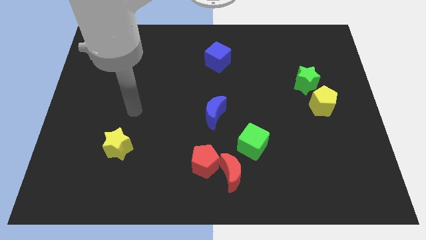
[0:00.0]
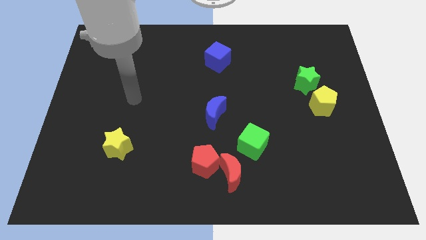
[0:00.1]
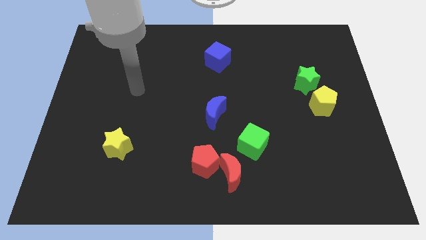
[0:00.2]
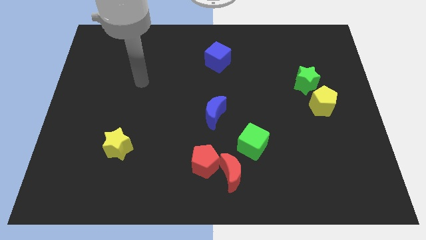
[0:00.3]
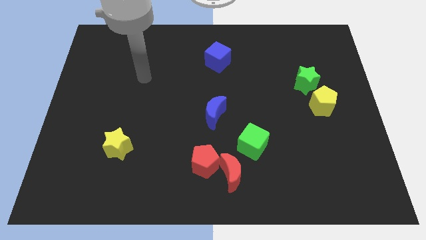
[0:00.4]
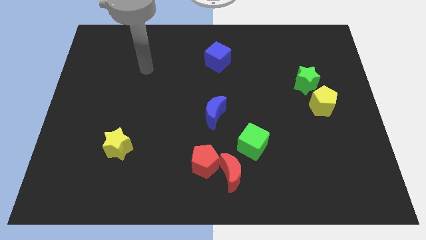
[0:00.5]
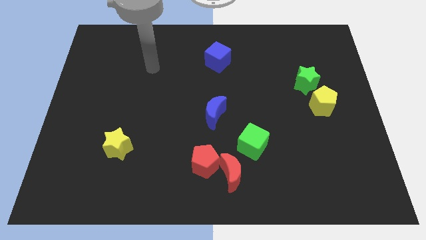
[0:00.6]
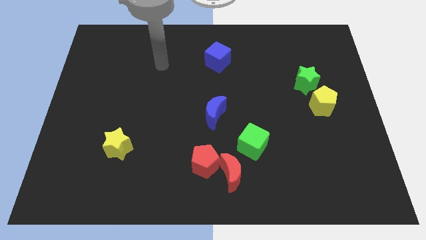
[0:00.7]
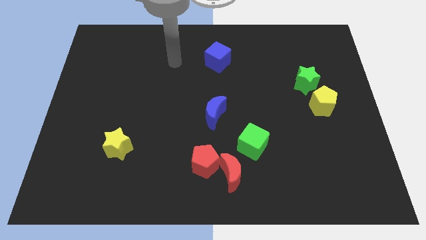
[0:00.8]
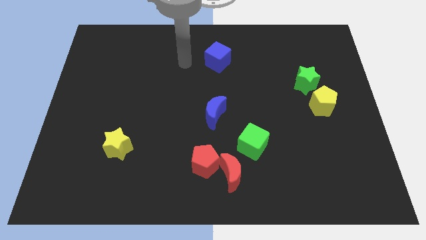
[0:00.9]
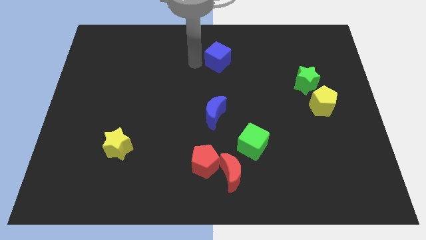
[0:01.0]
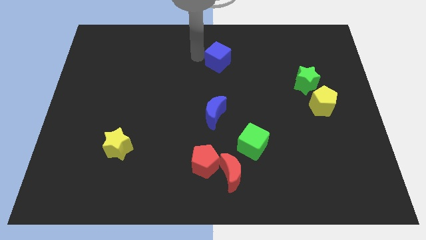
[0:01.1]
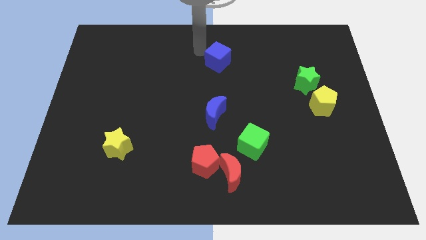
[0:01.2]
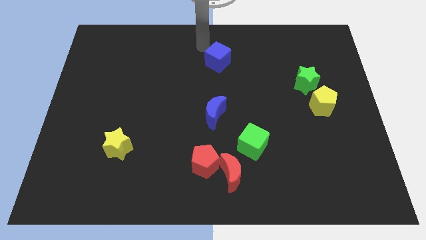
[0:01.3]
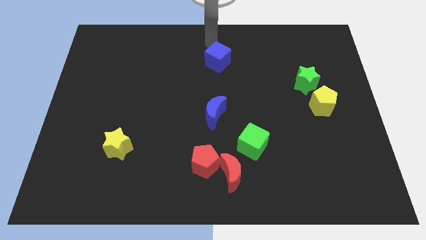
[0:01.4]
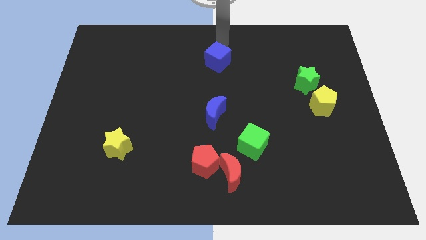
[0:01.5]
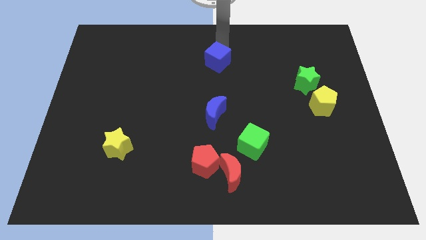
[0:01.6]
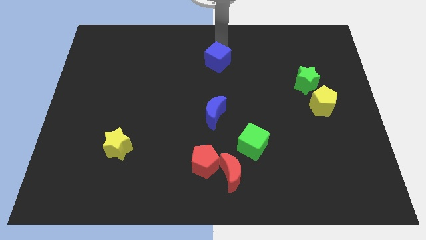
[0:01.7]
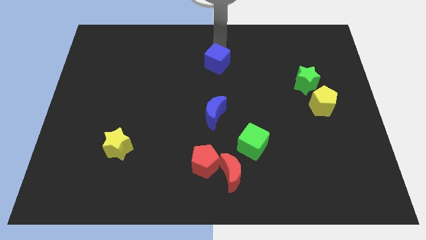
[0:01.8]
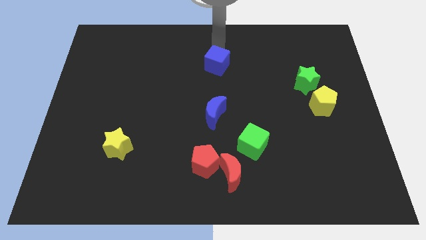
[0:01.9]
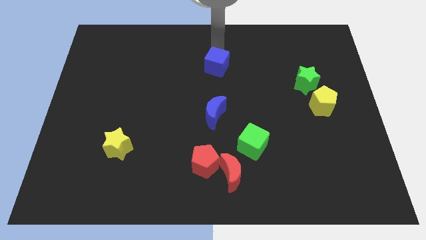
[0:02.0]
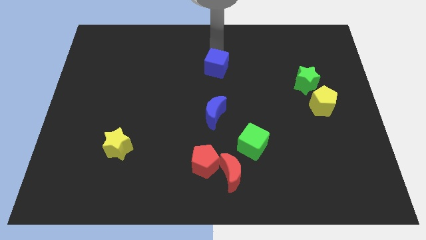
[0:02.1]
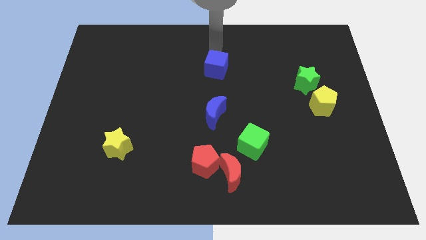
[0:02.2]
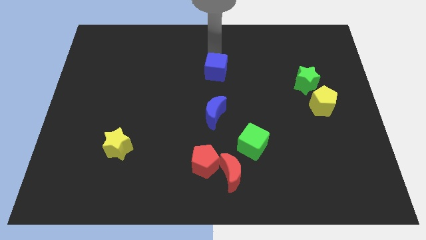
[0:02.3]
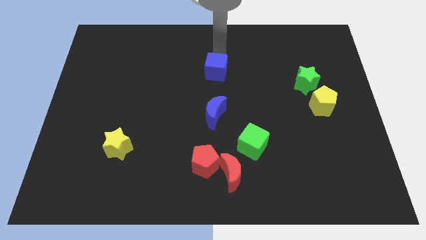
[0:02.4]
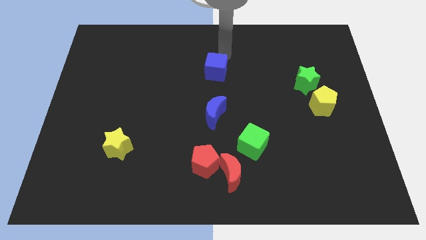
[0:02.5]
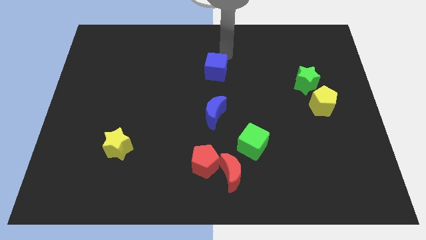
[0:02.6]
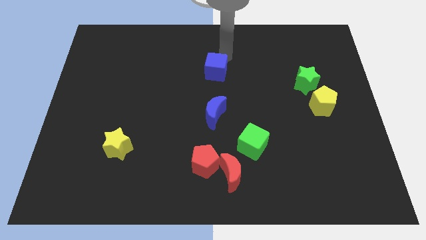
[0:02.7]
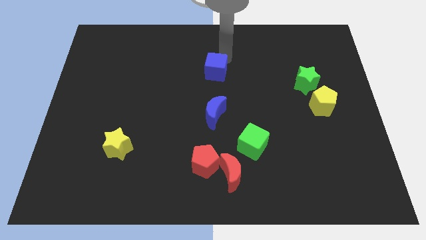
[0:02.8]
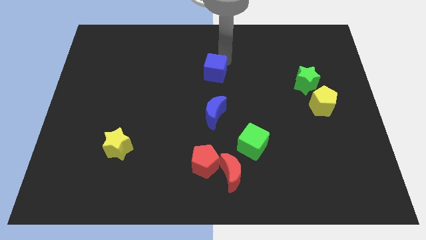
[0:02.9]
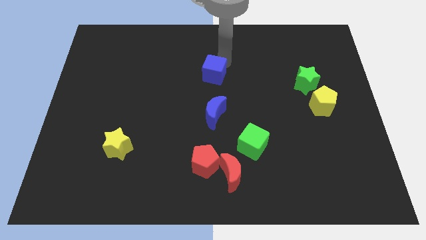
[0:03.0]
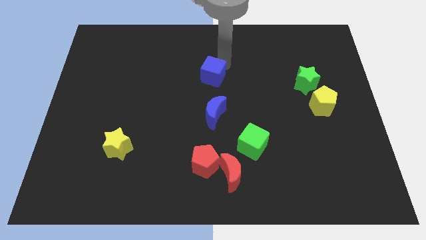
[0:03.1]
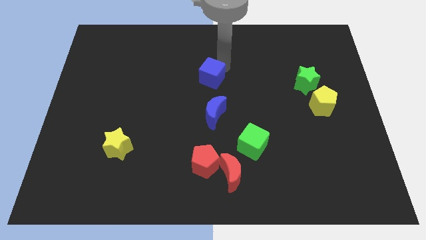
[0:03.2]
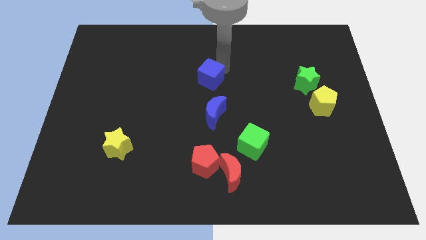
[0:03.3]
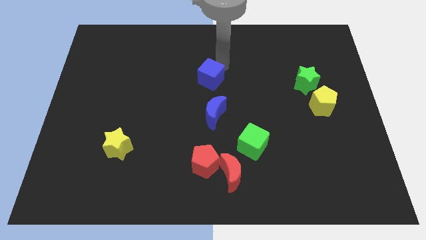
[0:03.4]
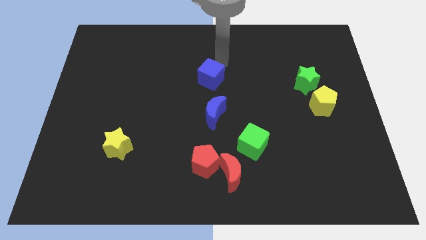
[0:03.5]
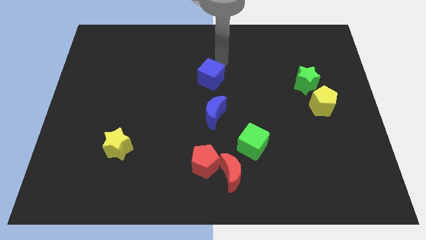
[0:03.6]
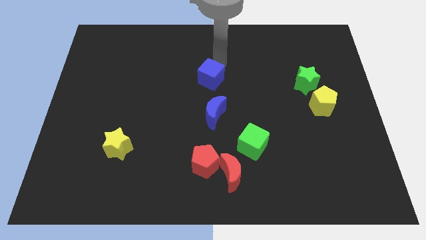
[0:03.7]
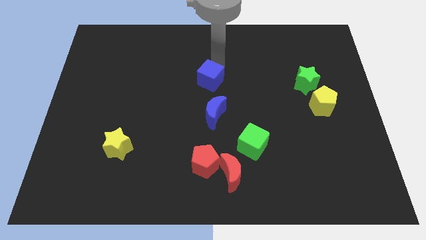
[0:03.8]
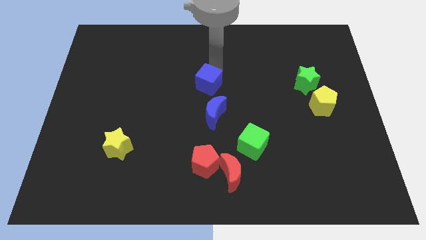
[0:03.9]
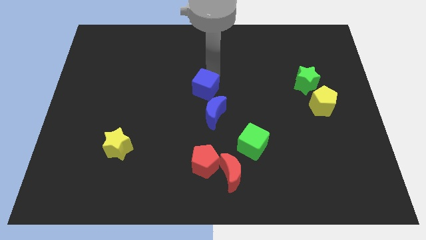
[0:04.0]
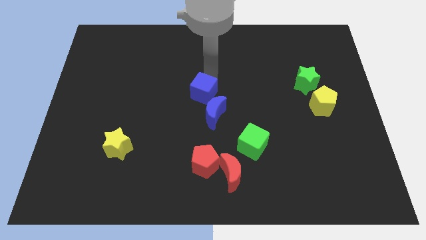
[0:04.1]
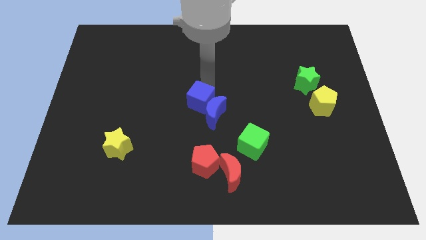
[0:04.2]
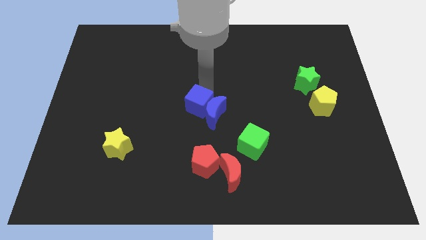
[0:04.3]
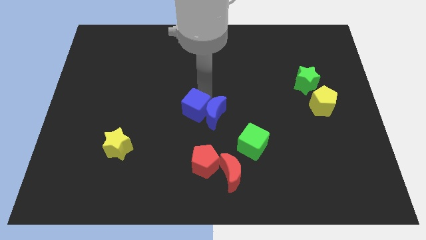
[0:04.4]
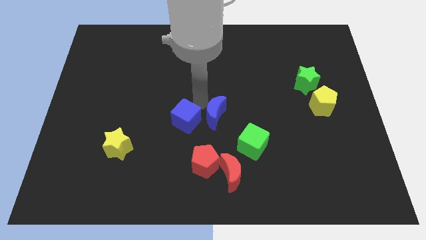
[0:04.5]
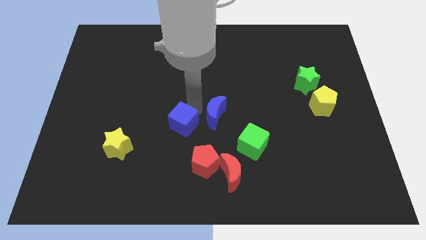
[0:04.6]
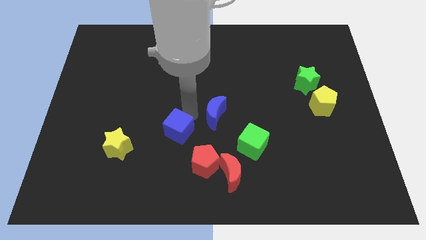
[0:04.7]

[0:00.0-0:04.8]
push the blue cube just right of the yellow star

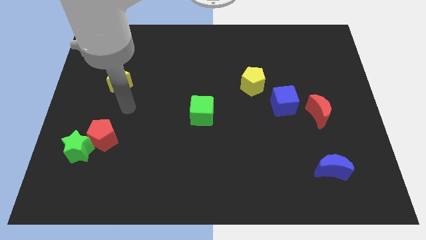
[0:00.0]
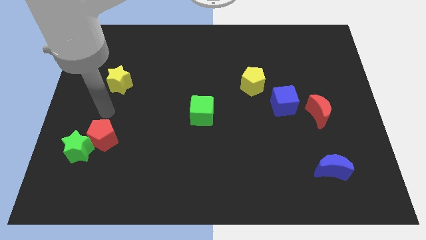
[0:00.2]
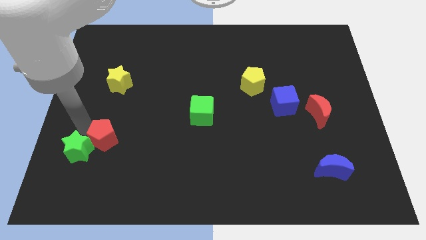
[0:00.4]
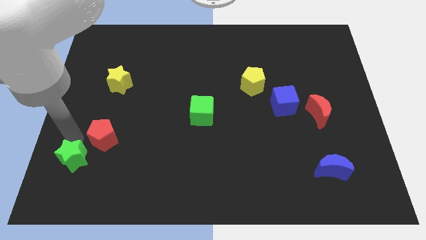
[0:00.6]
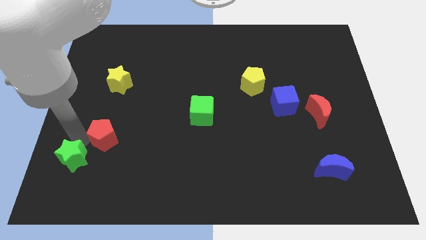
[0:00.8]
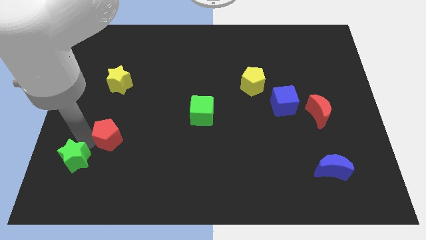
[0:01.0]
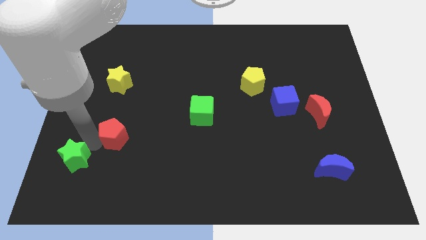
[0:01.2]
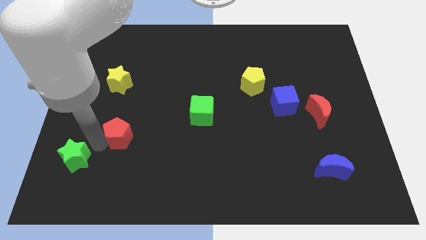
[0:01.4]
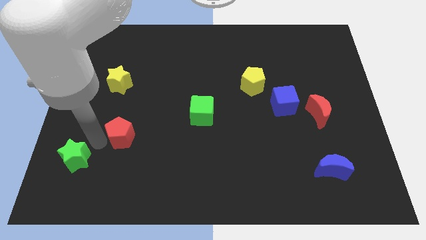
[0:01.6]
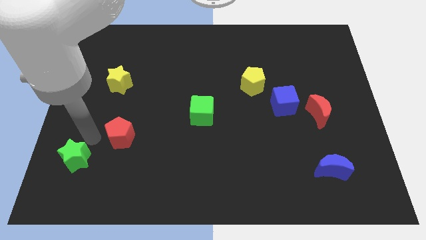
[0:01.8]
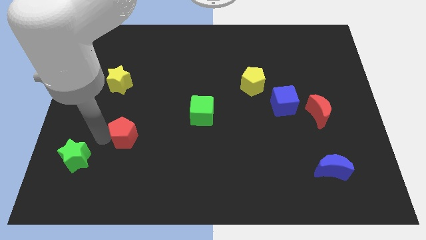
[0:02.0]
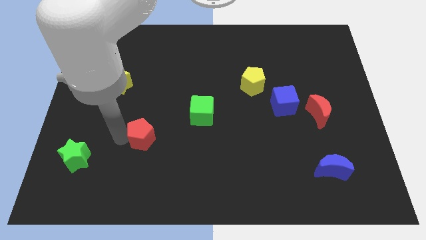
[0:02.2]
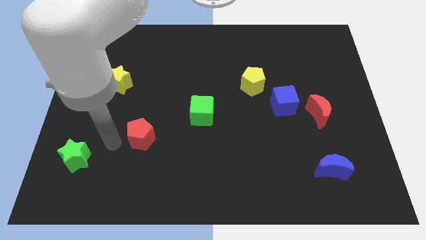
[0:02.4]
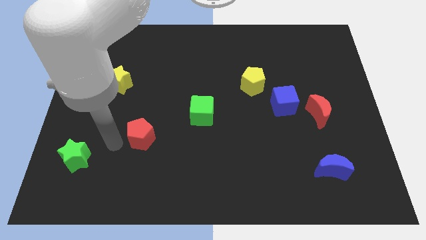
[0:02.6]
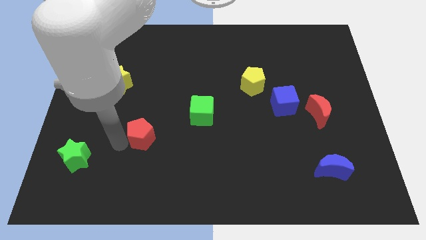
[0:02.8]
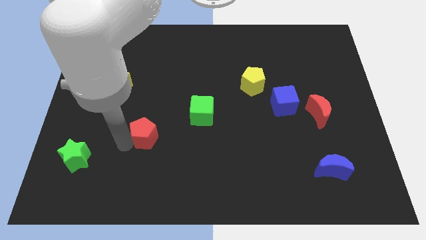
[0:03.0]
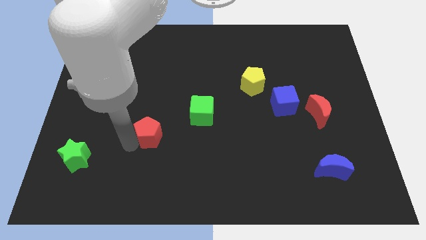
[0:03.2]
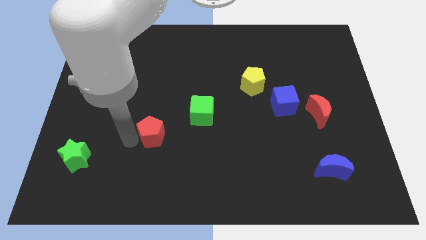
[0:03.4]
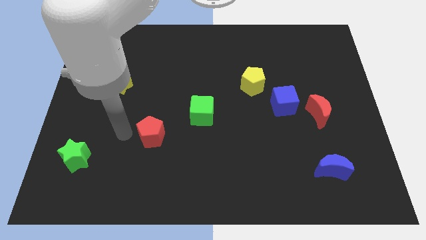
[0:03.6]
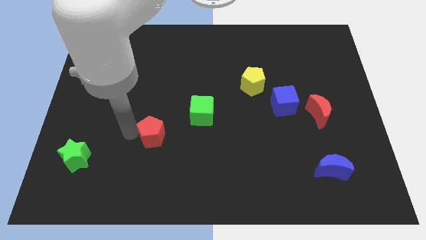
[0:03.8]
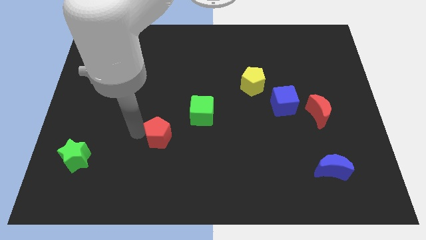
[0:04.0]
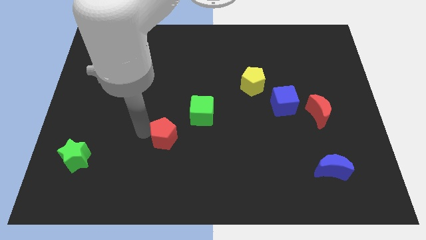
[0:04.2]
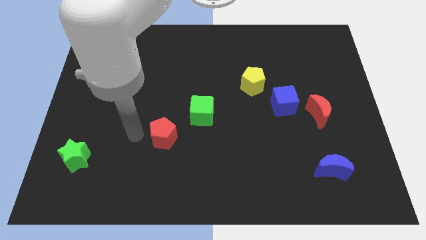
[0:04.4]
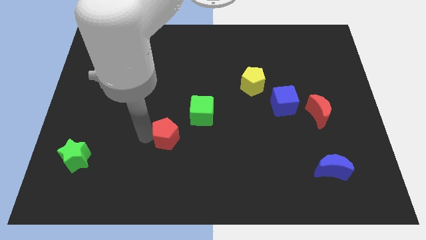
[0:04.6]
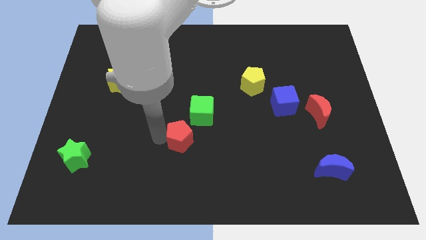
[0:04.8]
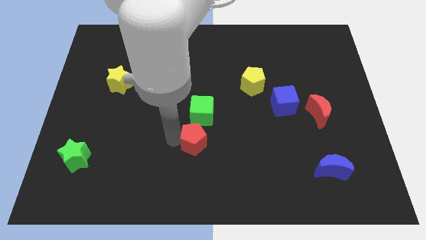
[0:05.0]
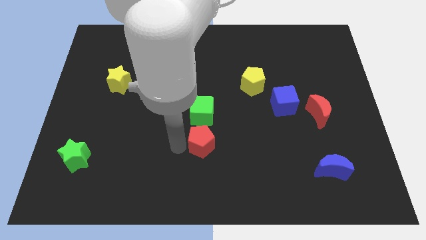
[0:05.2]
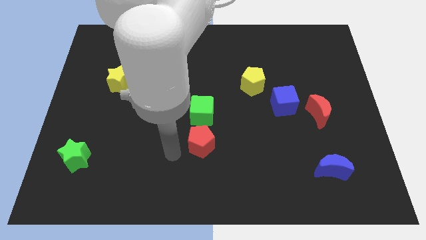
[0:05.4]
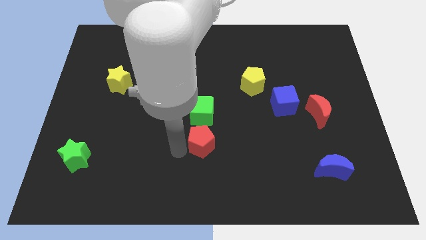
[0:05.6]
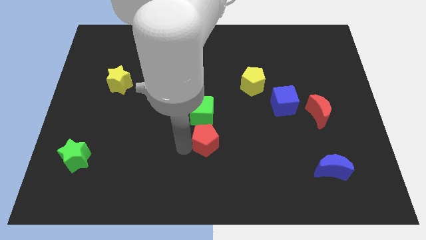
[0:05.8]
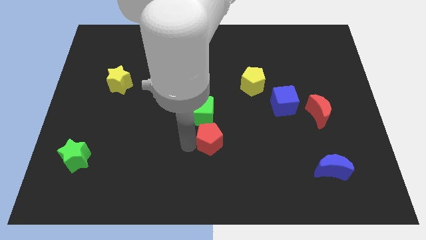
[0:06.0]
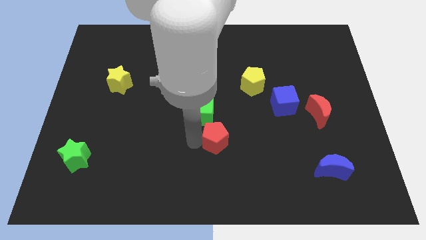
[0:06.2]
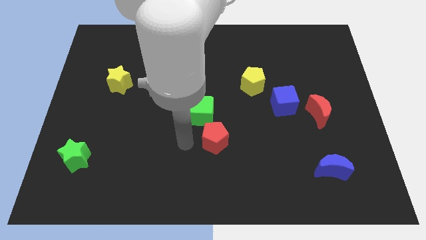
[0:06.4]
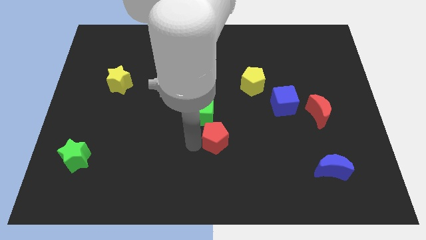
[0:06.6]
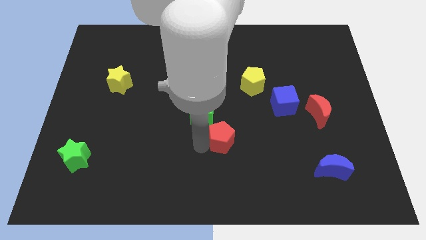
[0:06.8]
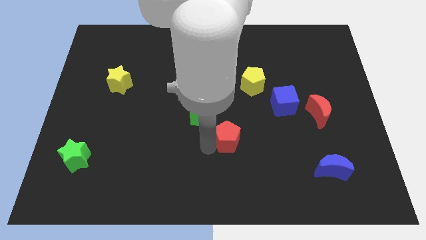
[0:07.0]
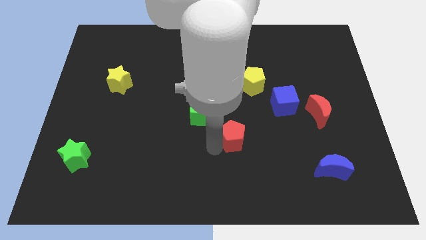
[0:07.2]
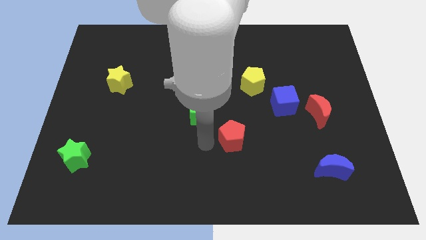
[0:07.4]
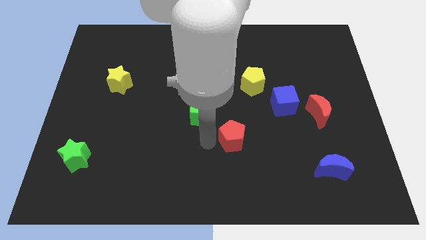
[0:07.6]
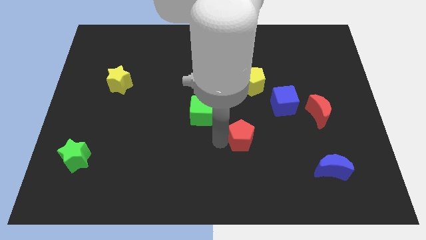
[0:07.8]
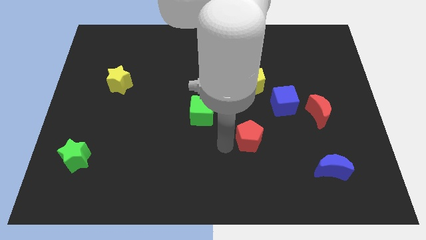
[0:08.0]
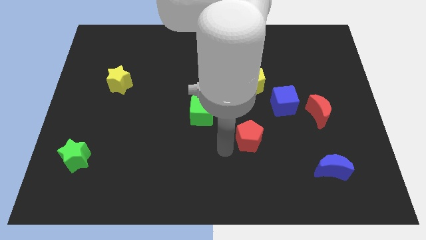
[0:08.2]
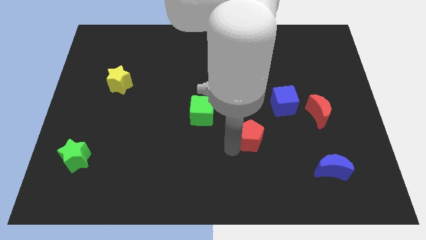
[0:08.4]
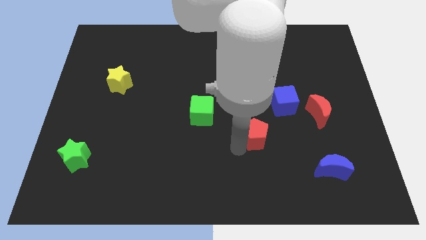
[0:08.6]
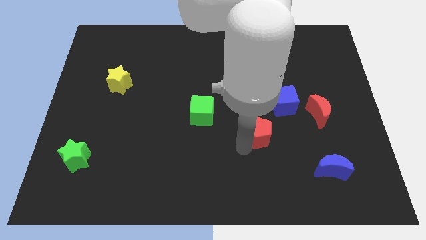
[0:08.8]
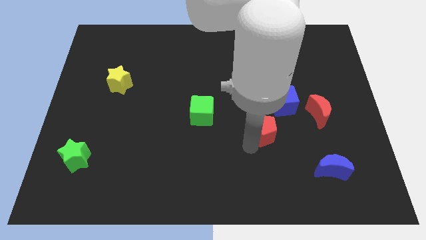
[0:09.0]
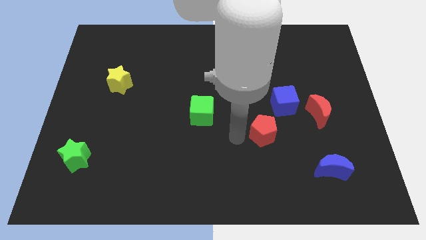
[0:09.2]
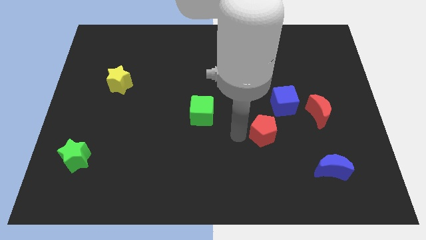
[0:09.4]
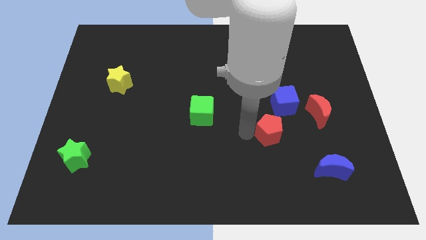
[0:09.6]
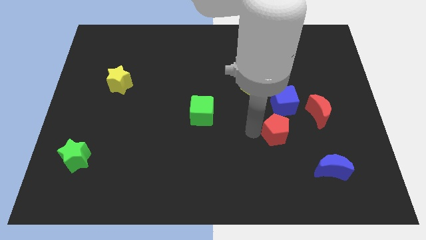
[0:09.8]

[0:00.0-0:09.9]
push the red pentagon to the bottom left side of the red moon
